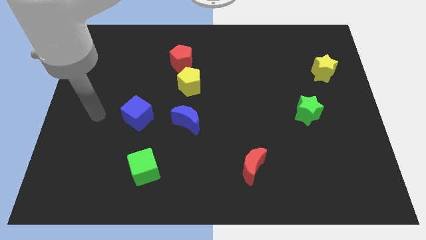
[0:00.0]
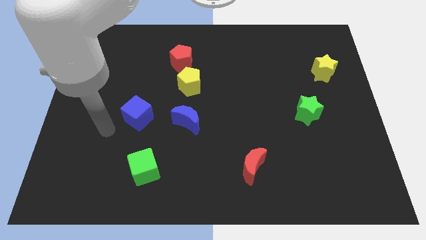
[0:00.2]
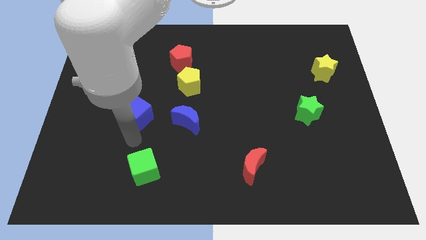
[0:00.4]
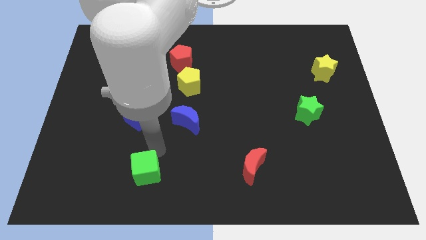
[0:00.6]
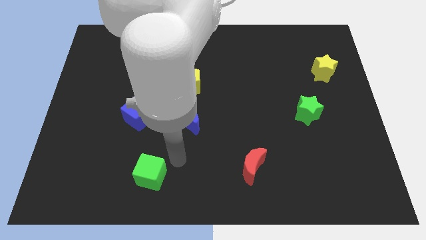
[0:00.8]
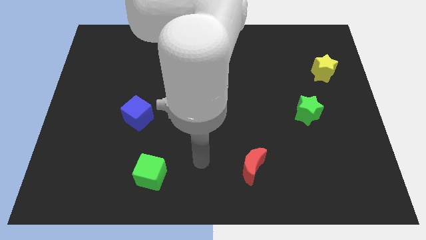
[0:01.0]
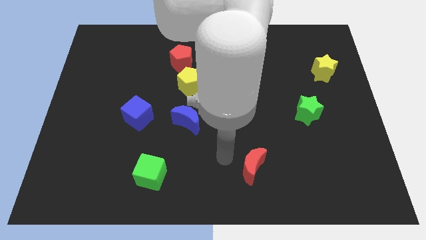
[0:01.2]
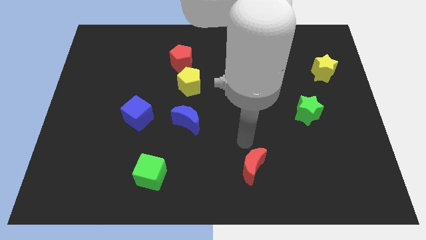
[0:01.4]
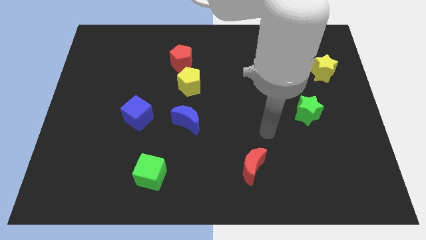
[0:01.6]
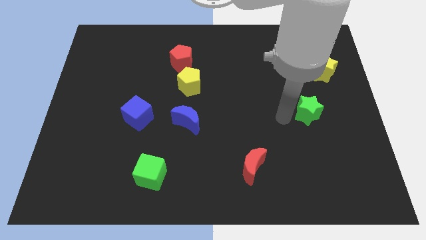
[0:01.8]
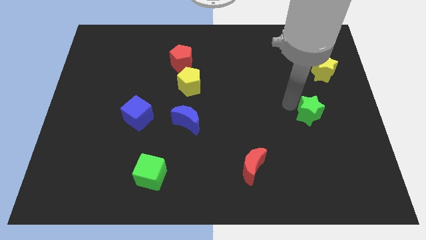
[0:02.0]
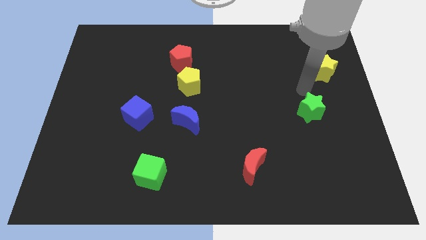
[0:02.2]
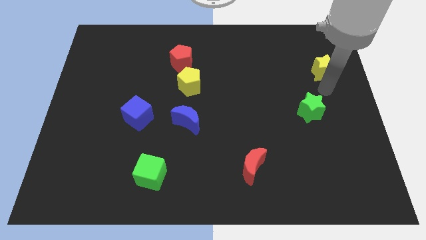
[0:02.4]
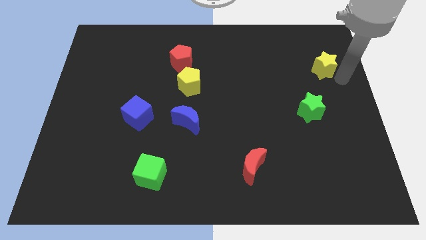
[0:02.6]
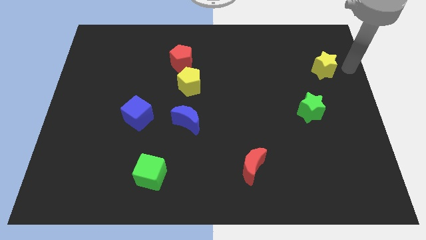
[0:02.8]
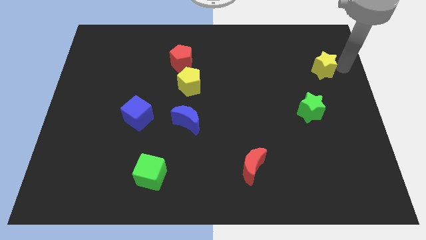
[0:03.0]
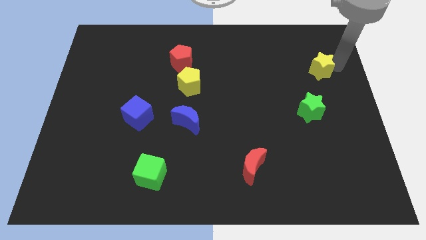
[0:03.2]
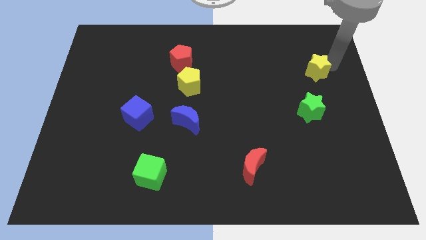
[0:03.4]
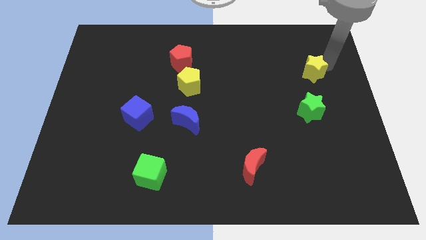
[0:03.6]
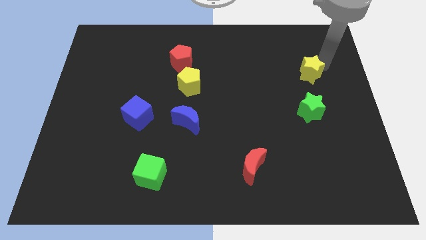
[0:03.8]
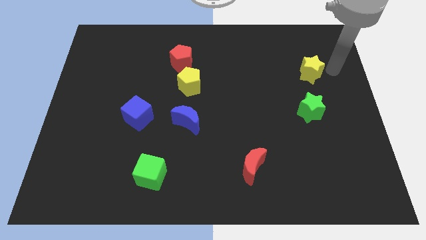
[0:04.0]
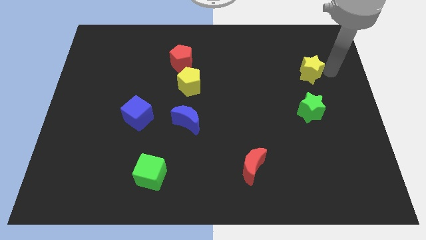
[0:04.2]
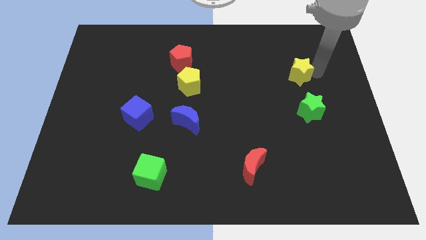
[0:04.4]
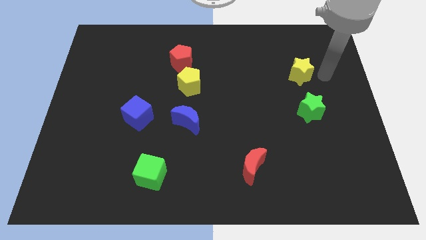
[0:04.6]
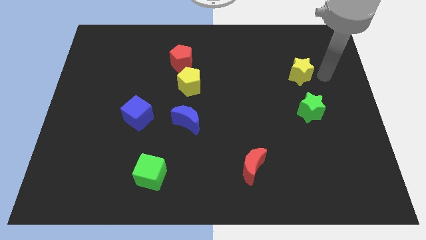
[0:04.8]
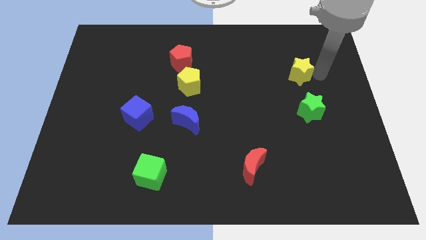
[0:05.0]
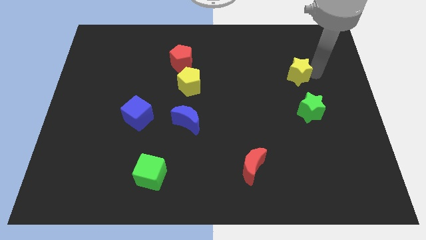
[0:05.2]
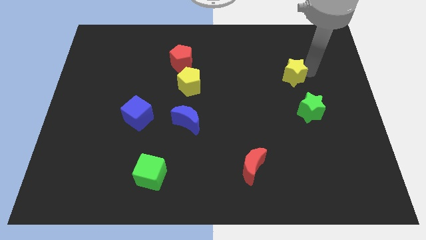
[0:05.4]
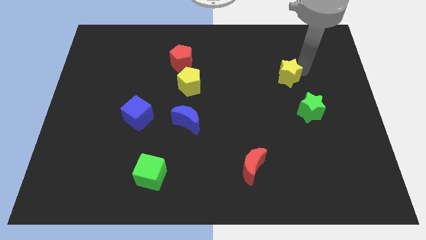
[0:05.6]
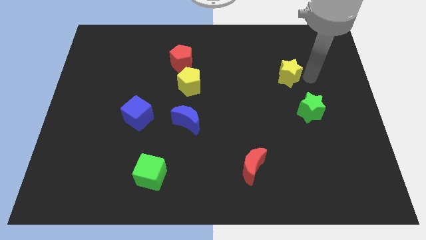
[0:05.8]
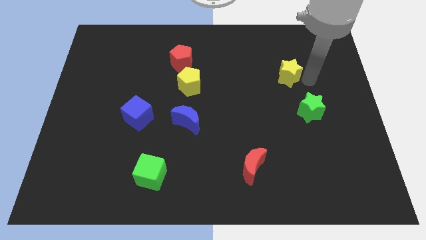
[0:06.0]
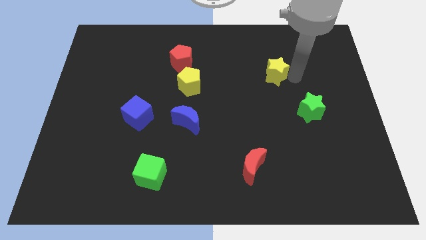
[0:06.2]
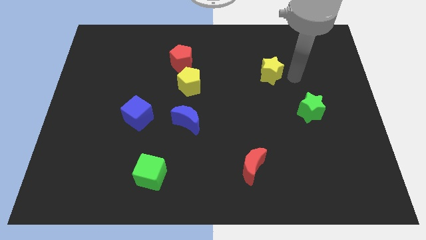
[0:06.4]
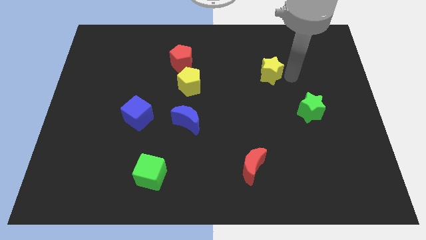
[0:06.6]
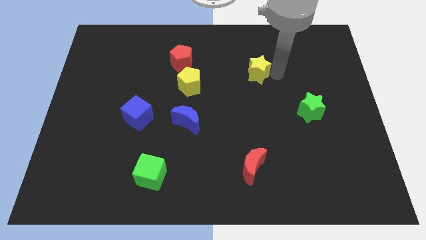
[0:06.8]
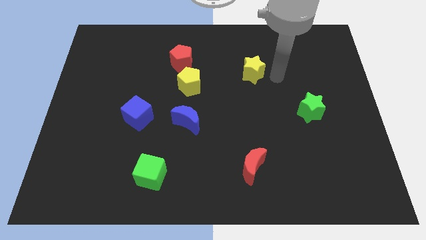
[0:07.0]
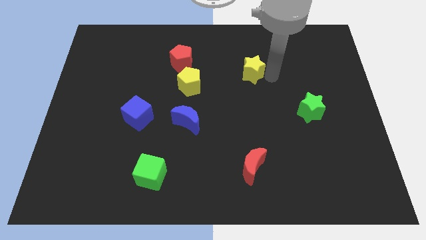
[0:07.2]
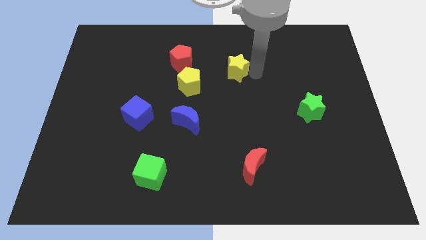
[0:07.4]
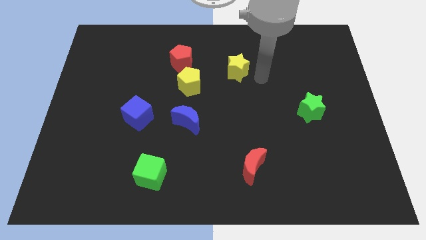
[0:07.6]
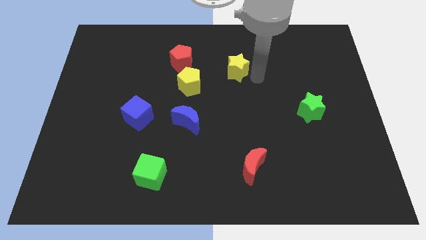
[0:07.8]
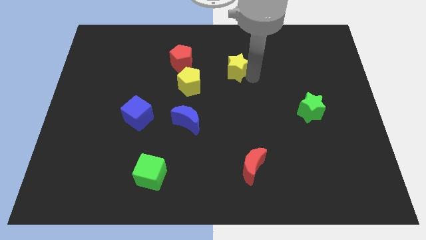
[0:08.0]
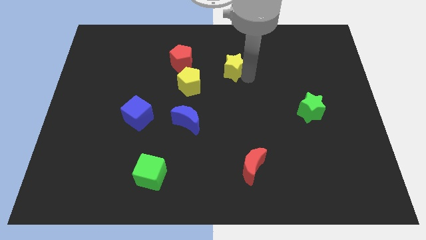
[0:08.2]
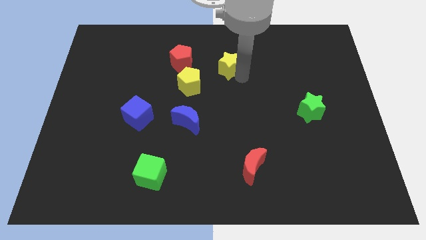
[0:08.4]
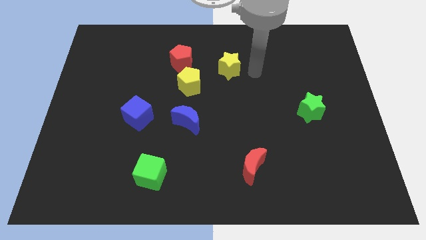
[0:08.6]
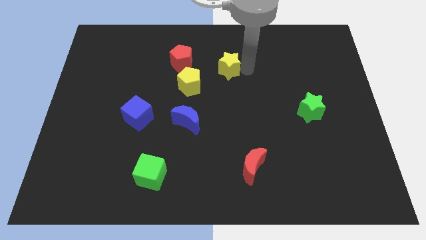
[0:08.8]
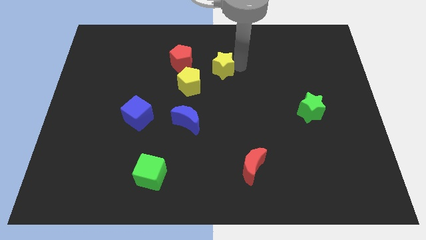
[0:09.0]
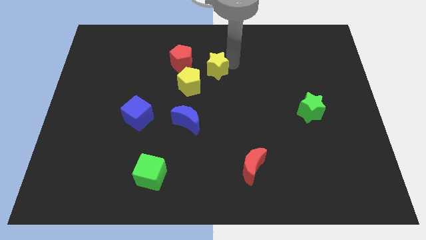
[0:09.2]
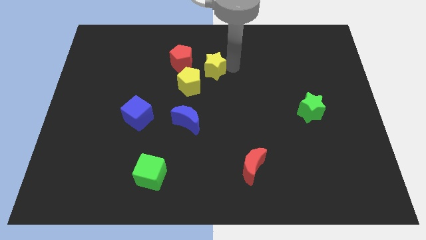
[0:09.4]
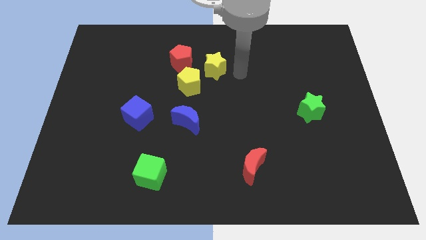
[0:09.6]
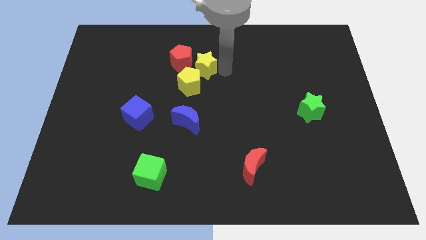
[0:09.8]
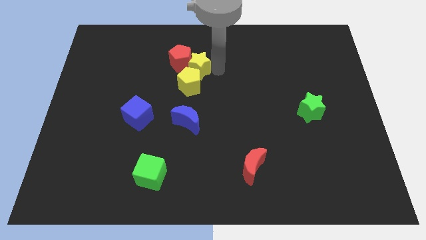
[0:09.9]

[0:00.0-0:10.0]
slide the yellow star to the red pentagon

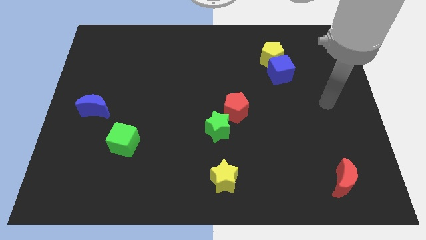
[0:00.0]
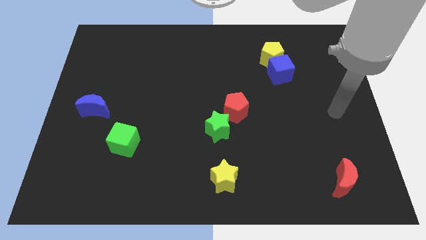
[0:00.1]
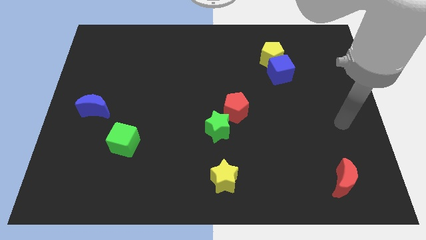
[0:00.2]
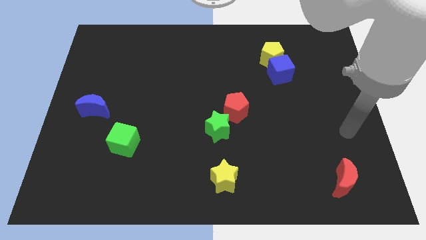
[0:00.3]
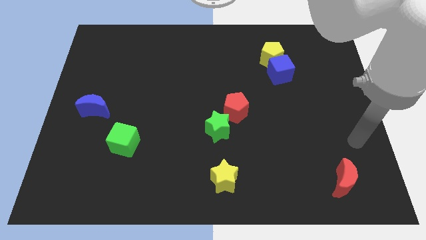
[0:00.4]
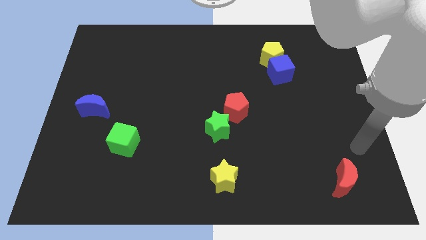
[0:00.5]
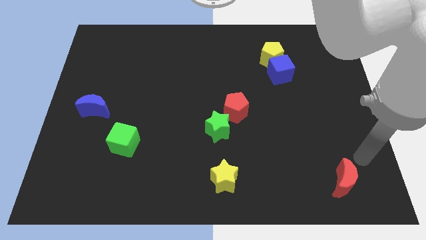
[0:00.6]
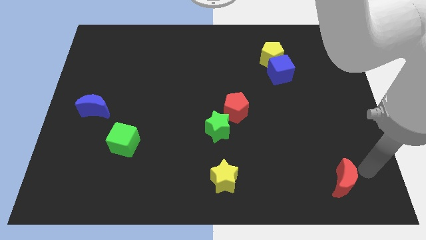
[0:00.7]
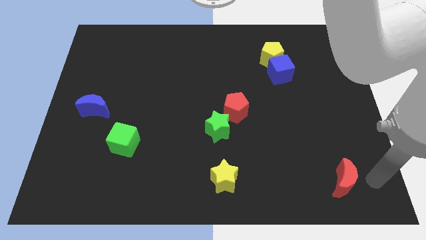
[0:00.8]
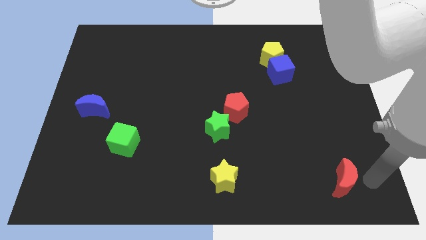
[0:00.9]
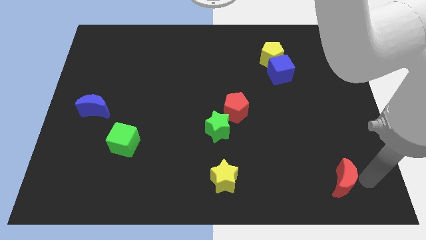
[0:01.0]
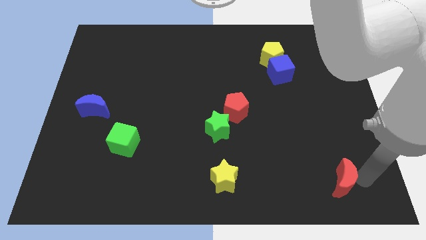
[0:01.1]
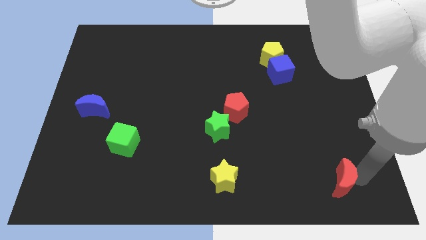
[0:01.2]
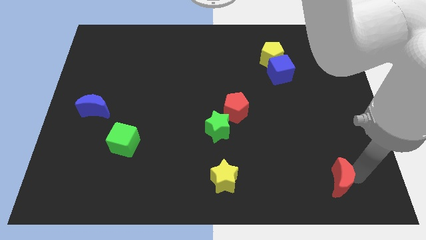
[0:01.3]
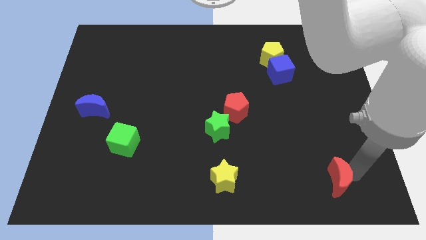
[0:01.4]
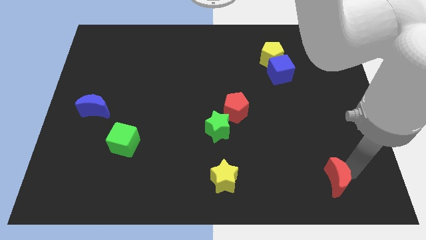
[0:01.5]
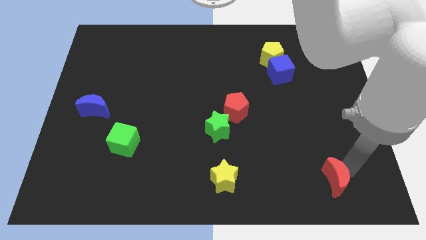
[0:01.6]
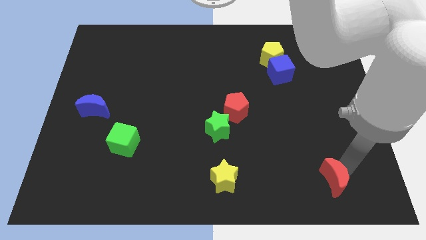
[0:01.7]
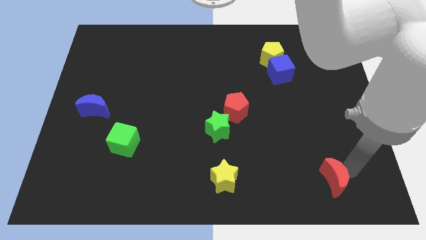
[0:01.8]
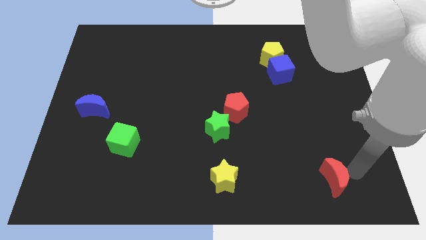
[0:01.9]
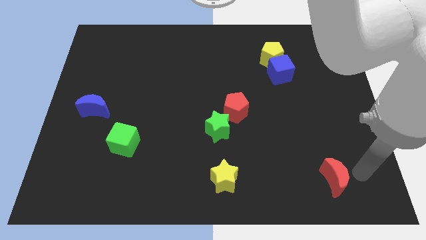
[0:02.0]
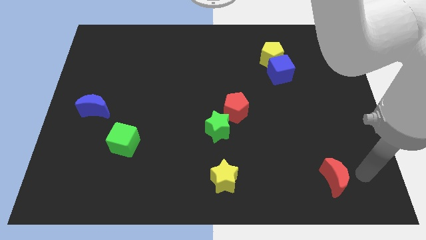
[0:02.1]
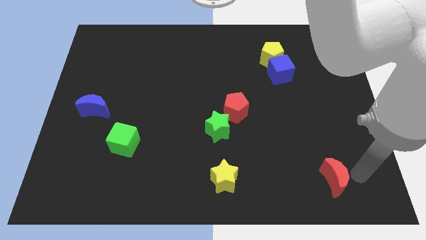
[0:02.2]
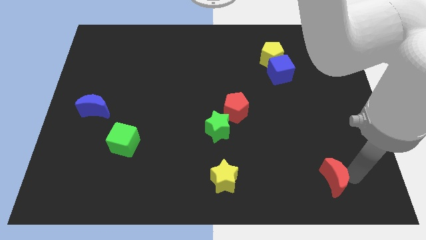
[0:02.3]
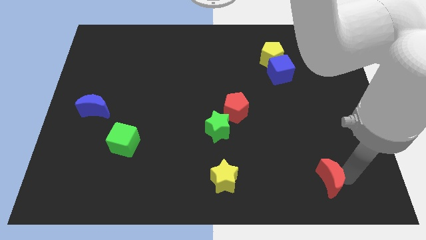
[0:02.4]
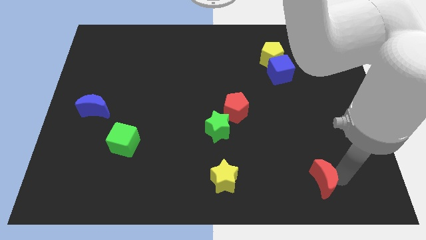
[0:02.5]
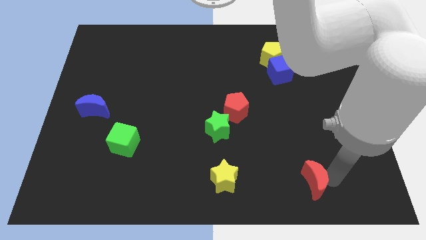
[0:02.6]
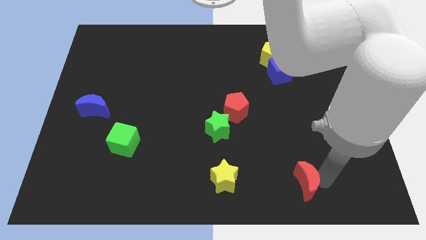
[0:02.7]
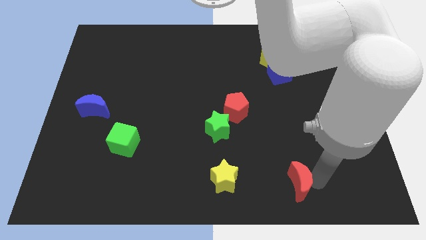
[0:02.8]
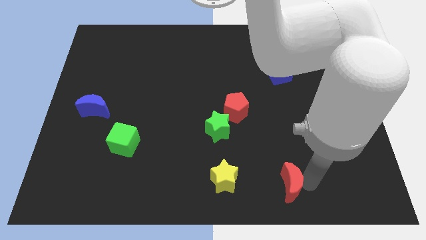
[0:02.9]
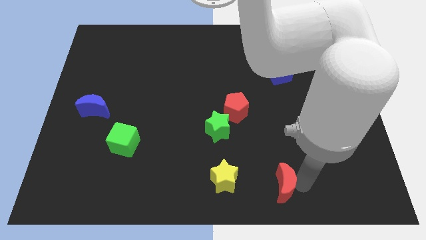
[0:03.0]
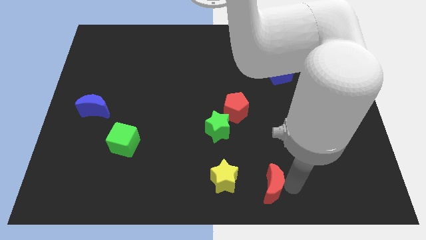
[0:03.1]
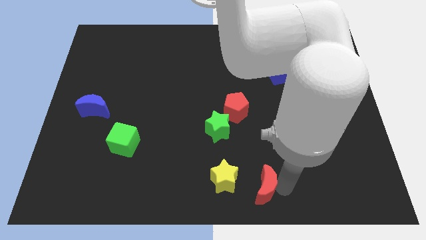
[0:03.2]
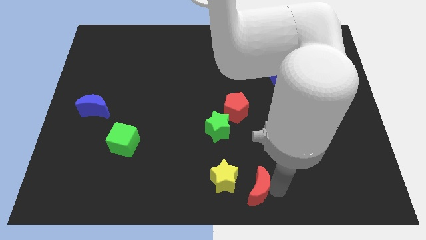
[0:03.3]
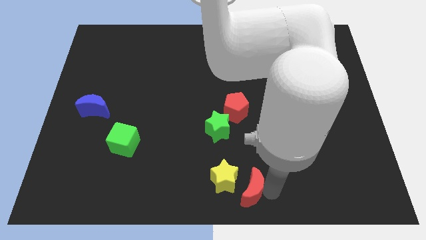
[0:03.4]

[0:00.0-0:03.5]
slide the red moon next to the yellow star
